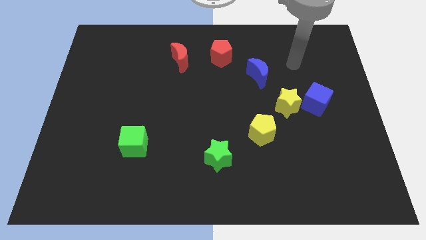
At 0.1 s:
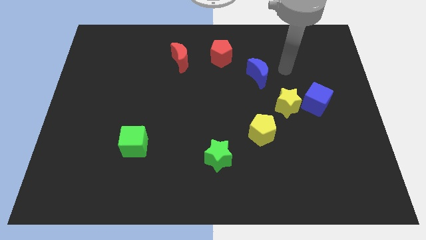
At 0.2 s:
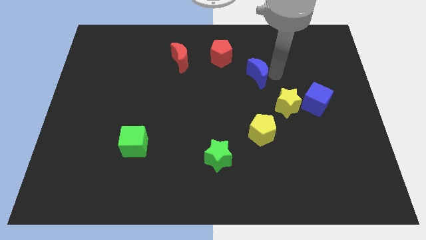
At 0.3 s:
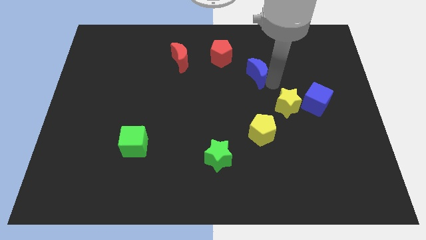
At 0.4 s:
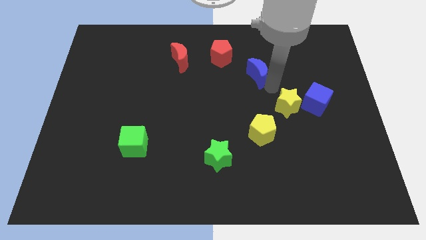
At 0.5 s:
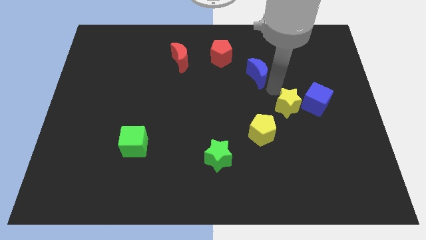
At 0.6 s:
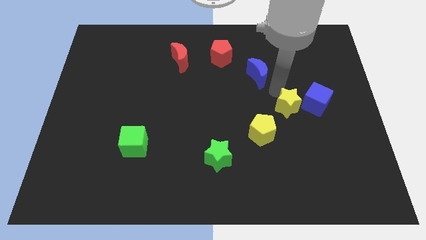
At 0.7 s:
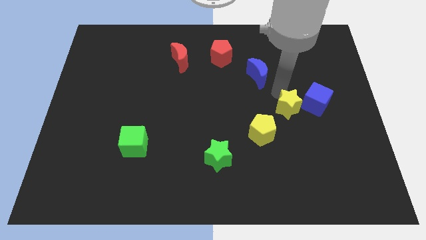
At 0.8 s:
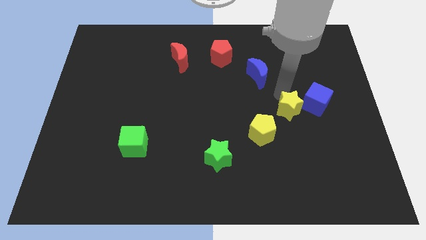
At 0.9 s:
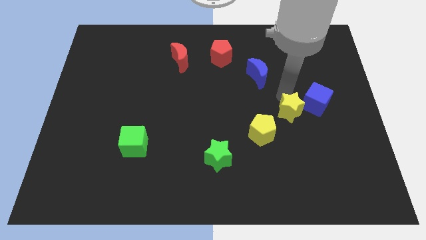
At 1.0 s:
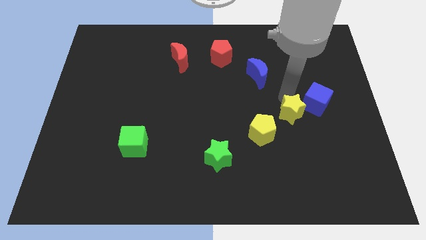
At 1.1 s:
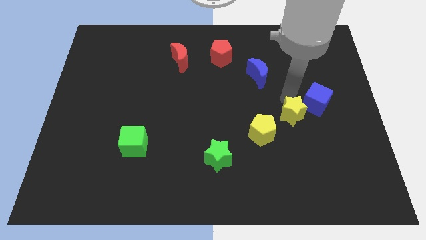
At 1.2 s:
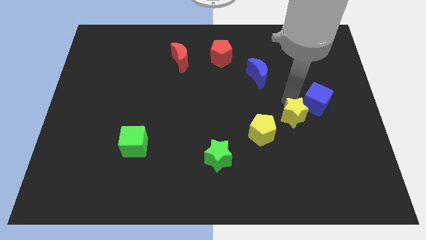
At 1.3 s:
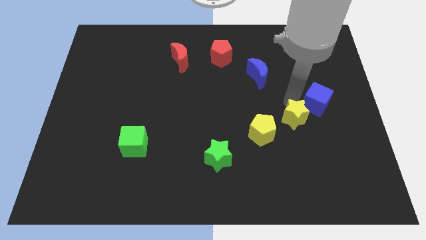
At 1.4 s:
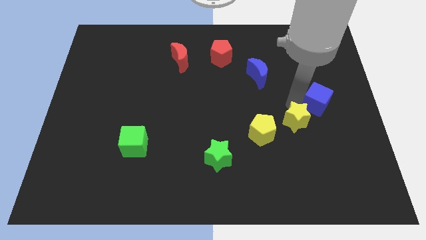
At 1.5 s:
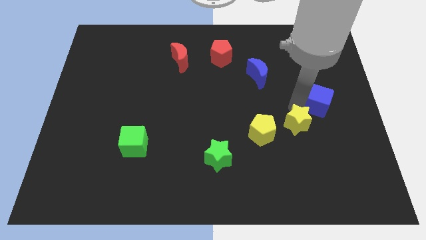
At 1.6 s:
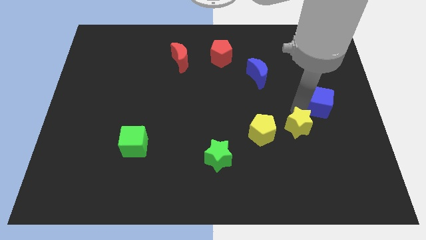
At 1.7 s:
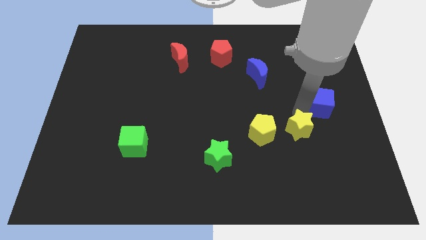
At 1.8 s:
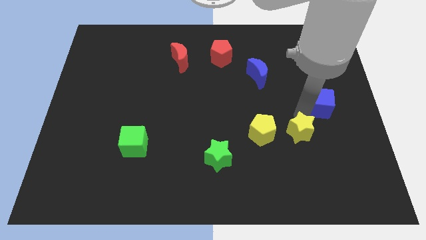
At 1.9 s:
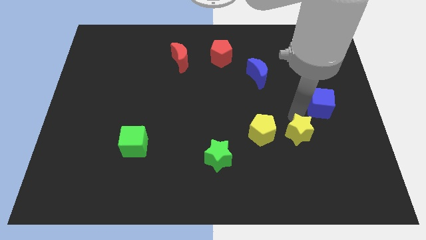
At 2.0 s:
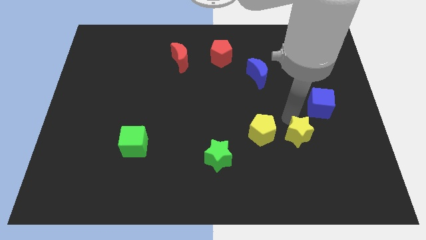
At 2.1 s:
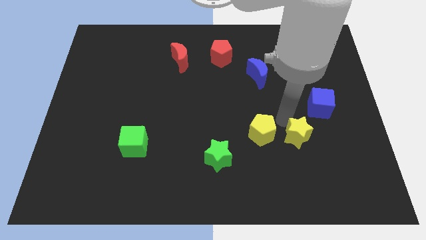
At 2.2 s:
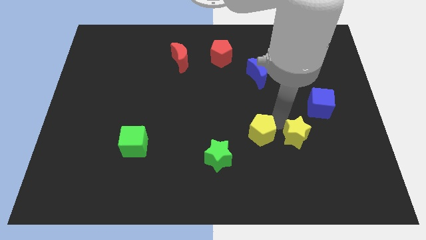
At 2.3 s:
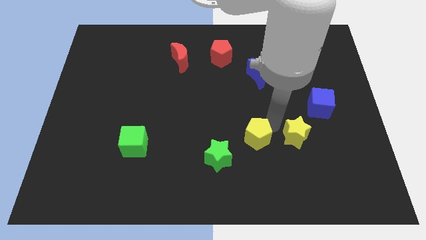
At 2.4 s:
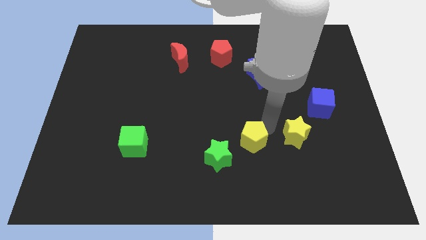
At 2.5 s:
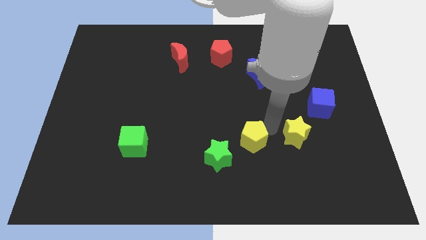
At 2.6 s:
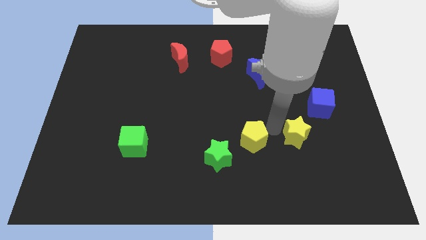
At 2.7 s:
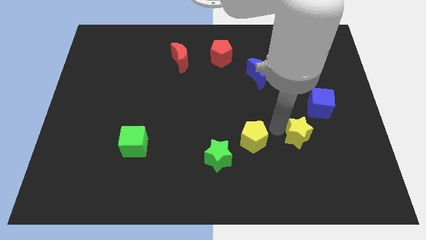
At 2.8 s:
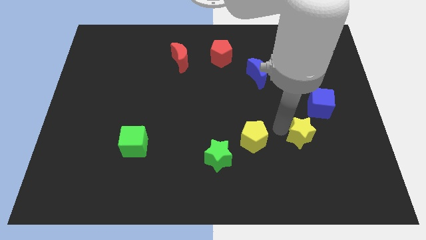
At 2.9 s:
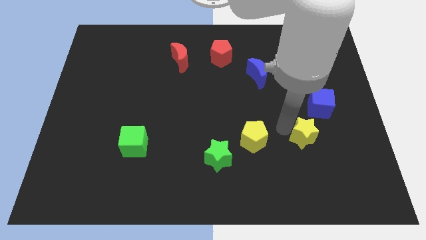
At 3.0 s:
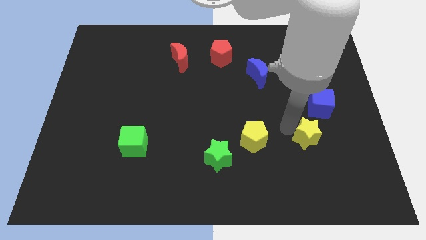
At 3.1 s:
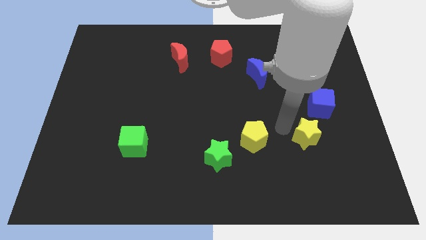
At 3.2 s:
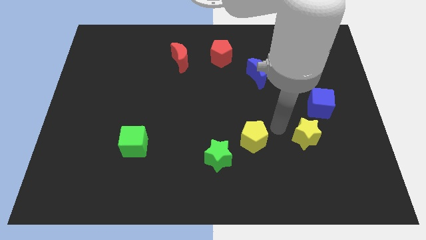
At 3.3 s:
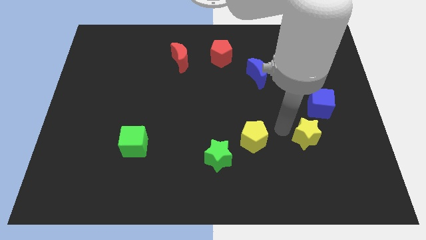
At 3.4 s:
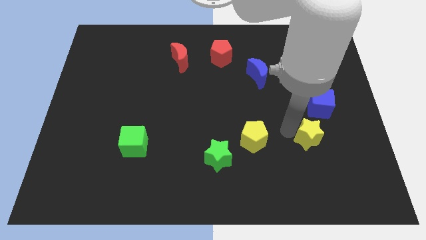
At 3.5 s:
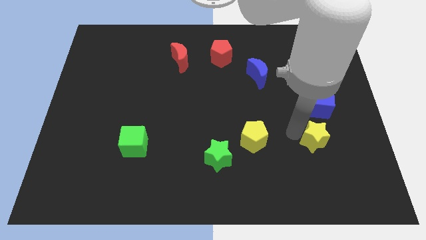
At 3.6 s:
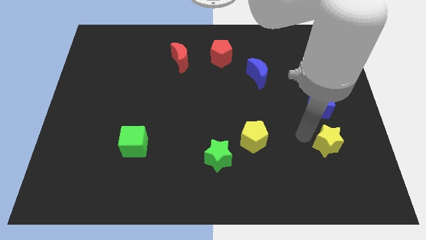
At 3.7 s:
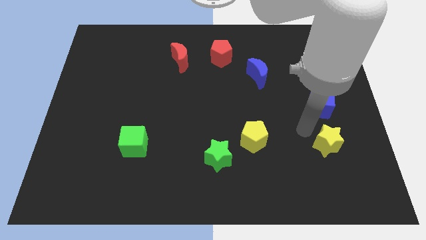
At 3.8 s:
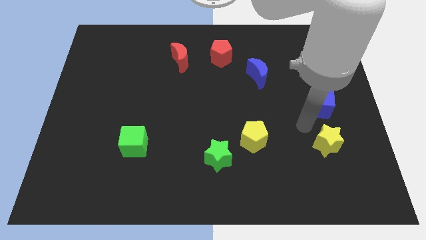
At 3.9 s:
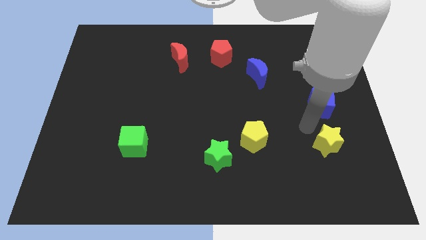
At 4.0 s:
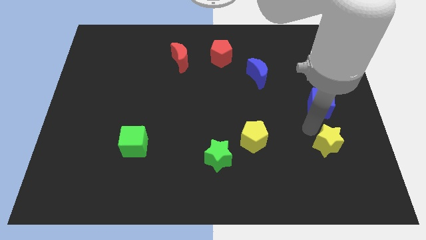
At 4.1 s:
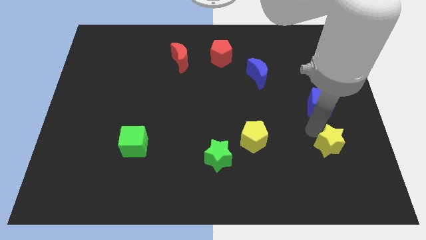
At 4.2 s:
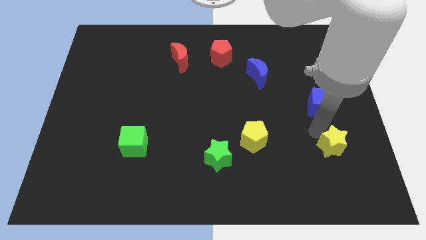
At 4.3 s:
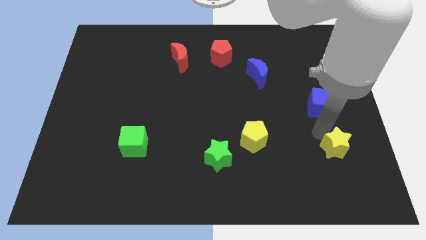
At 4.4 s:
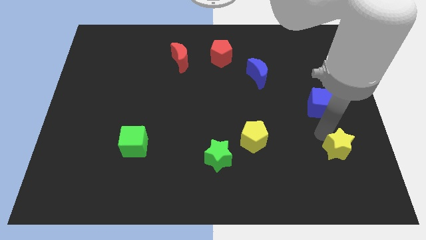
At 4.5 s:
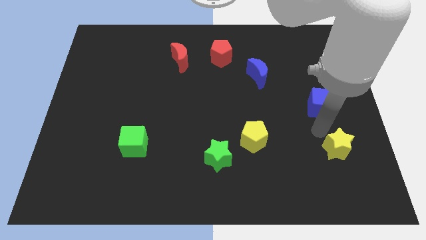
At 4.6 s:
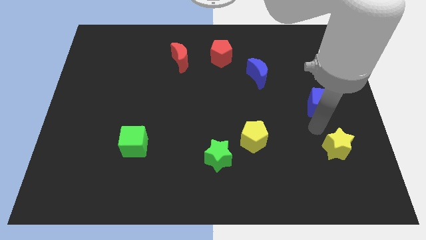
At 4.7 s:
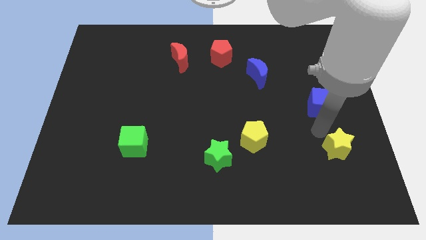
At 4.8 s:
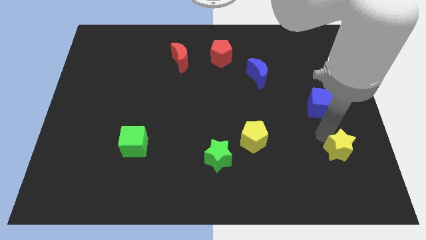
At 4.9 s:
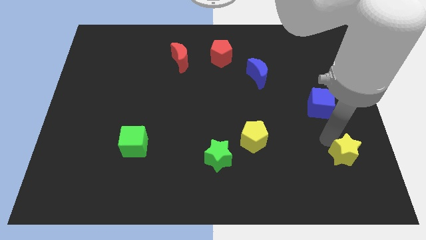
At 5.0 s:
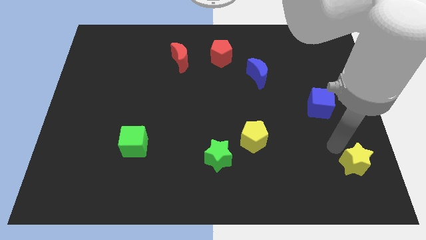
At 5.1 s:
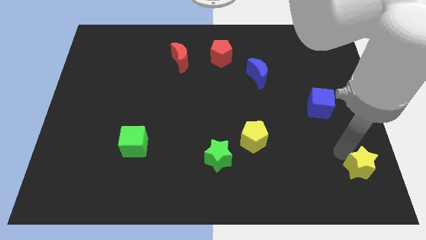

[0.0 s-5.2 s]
move the yellow star to the lower right corner

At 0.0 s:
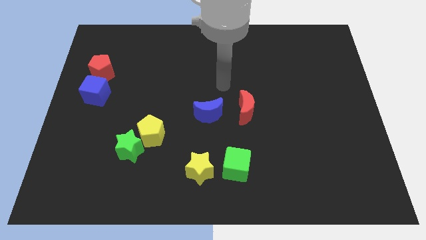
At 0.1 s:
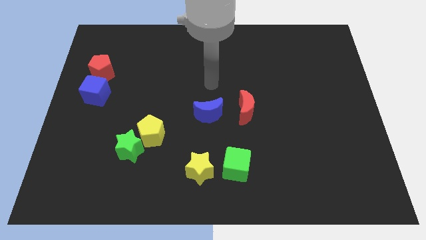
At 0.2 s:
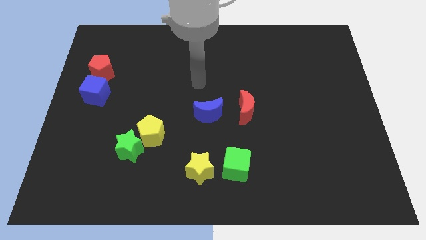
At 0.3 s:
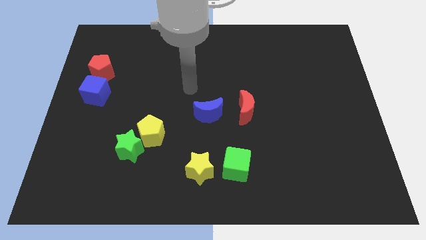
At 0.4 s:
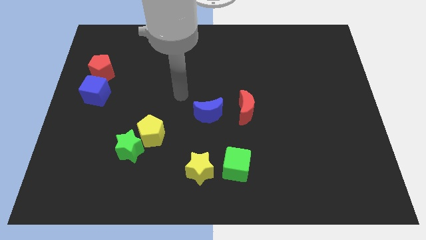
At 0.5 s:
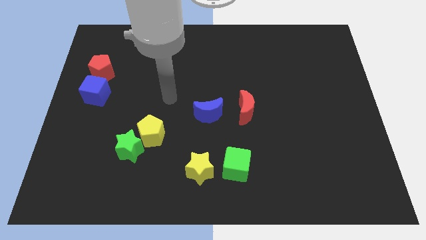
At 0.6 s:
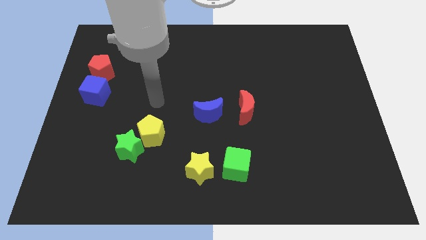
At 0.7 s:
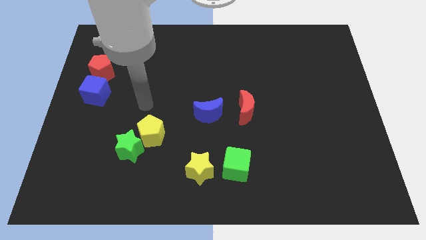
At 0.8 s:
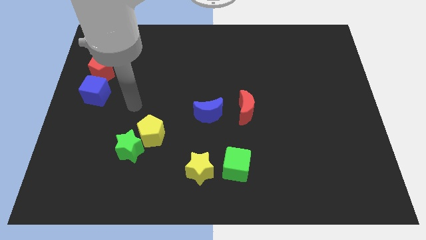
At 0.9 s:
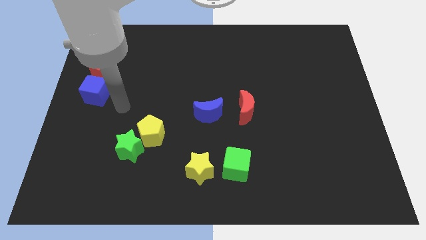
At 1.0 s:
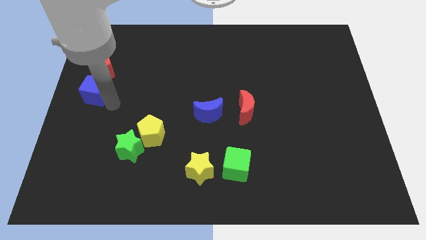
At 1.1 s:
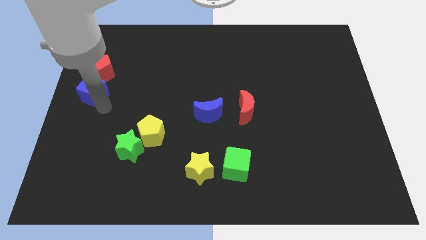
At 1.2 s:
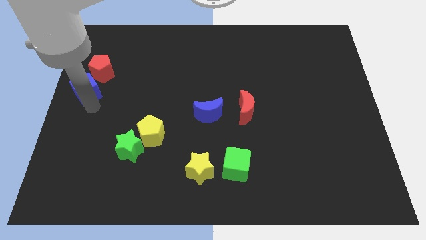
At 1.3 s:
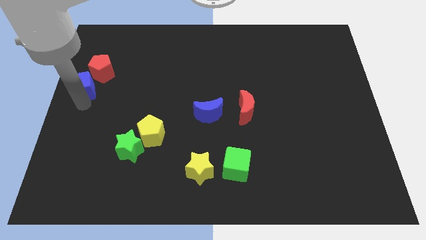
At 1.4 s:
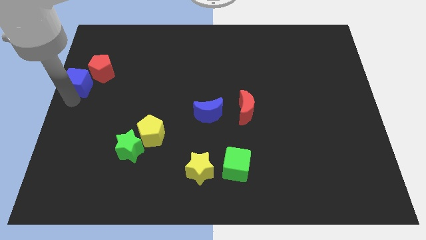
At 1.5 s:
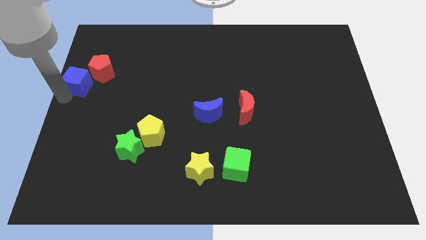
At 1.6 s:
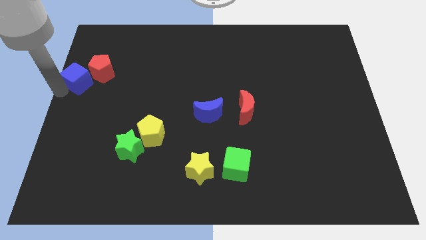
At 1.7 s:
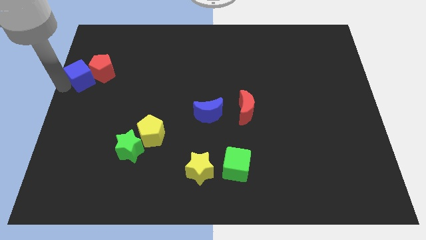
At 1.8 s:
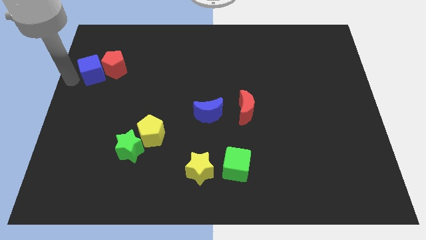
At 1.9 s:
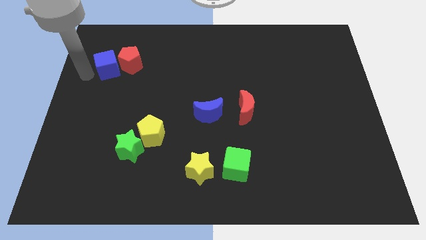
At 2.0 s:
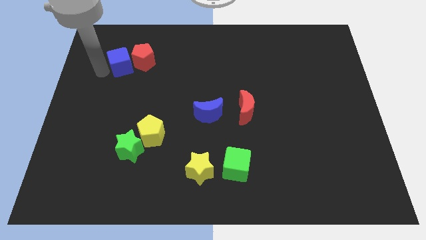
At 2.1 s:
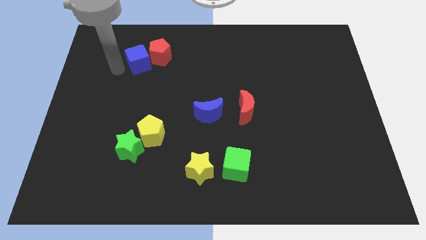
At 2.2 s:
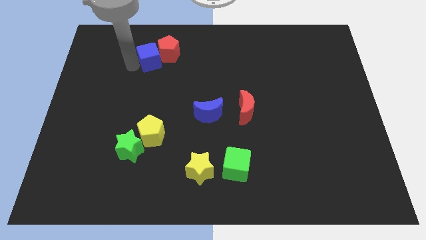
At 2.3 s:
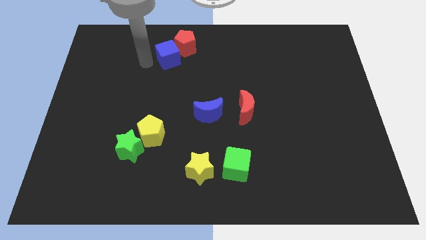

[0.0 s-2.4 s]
put the red pentagon to the top
